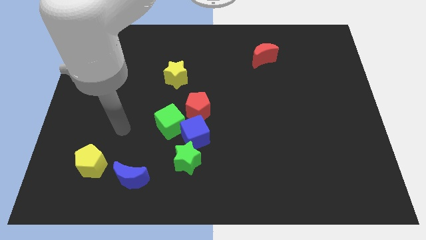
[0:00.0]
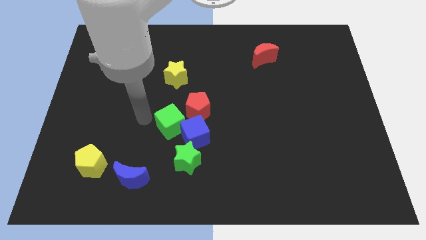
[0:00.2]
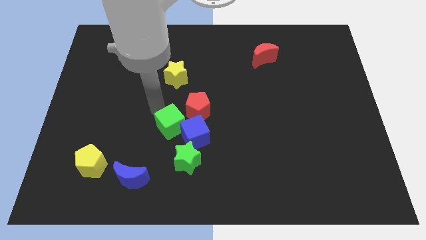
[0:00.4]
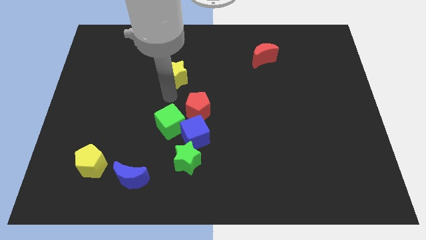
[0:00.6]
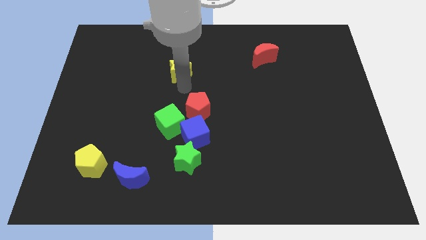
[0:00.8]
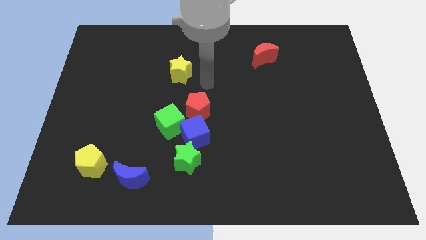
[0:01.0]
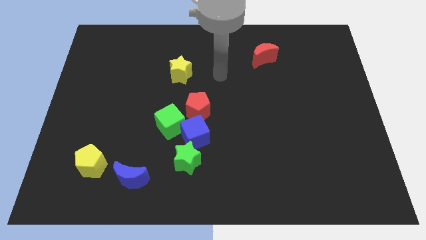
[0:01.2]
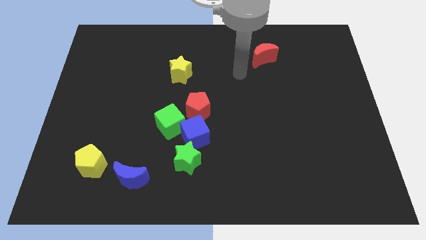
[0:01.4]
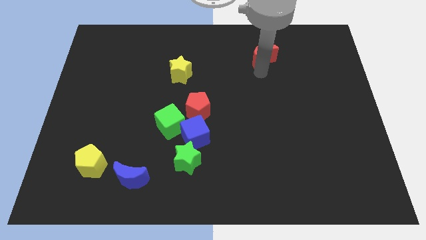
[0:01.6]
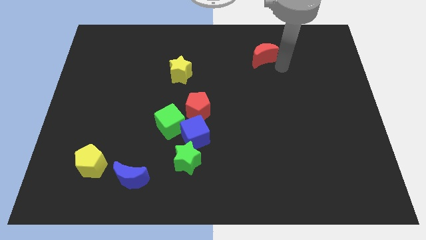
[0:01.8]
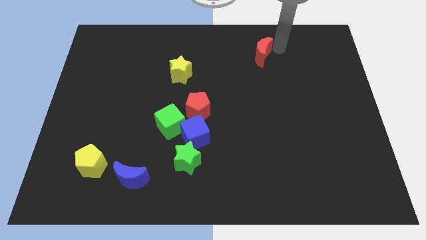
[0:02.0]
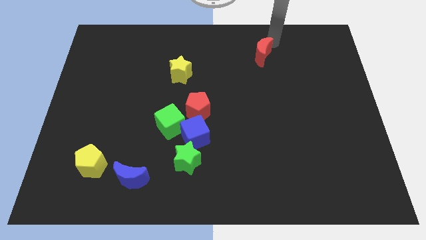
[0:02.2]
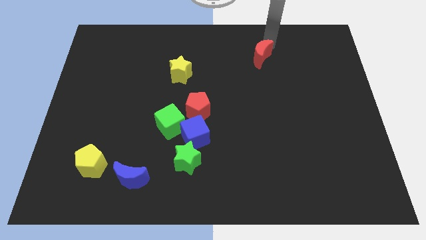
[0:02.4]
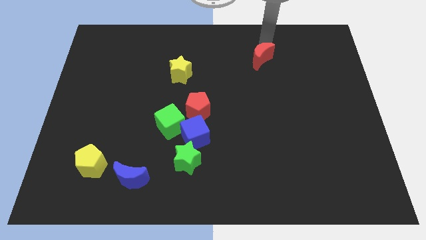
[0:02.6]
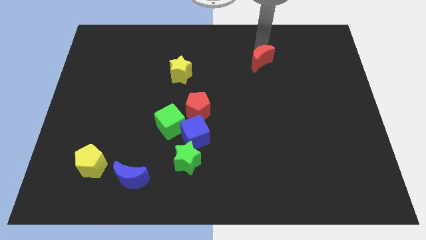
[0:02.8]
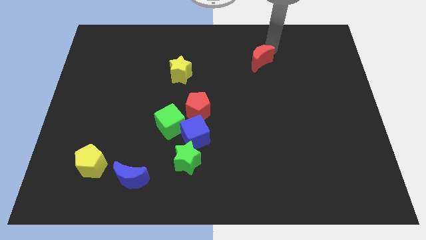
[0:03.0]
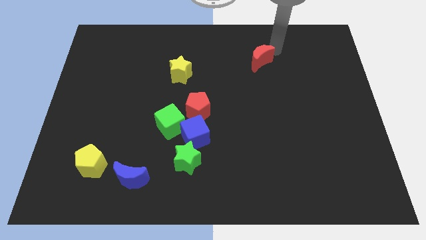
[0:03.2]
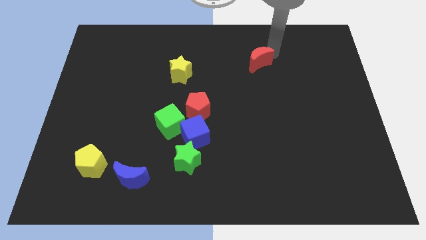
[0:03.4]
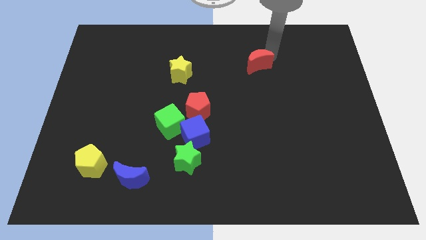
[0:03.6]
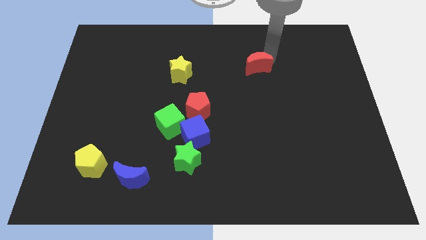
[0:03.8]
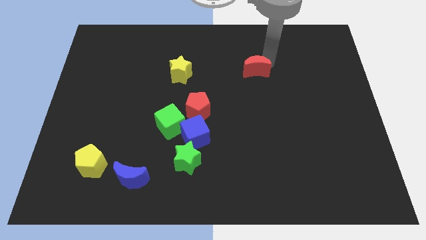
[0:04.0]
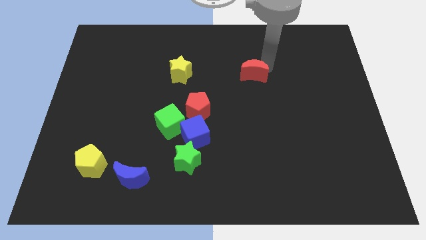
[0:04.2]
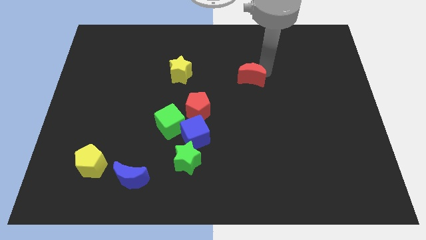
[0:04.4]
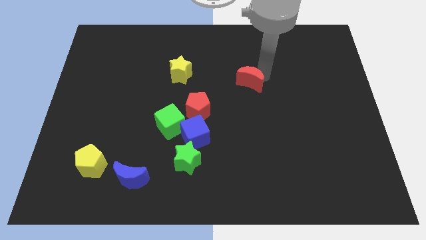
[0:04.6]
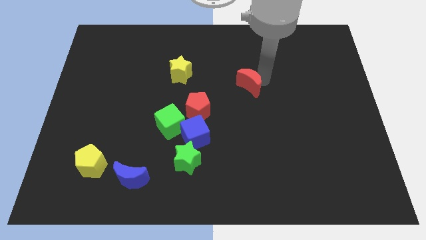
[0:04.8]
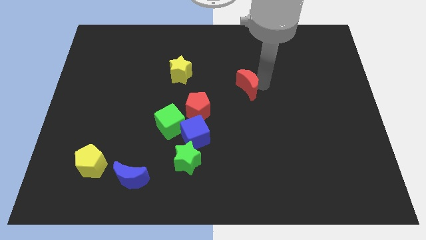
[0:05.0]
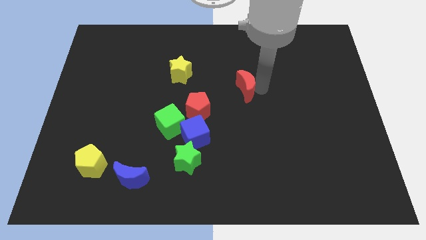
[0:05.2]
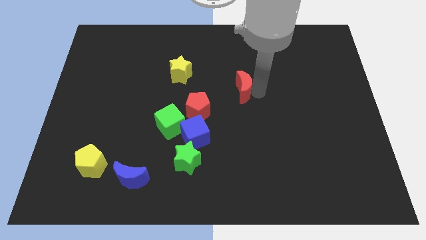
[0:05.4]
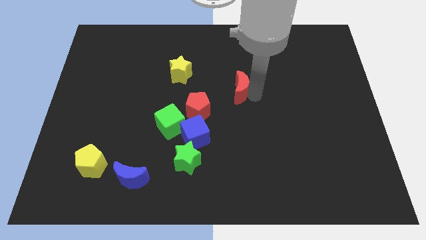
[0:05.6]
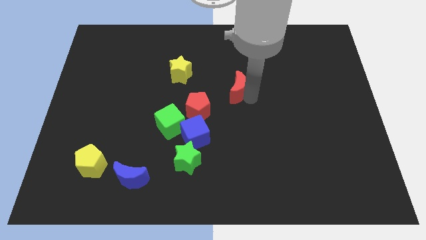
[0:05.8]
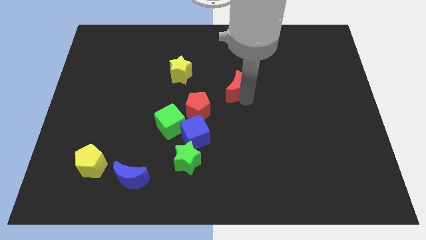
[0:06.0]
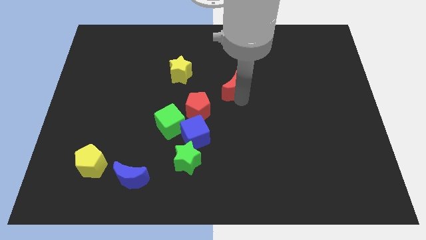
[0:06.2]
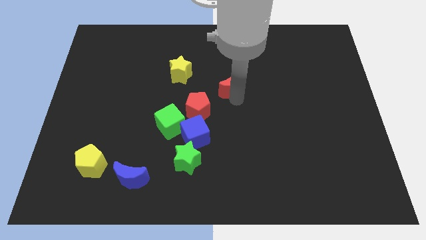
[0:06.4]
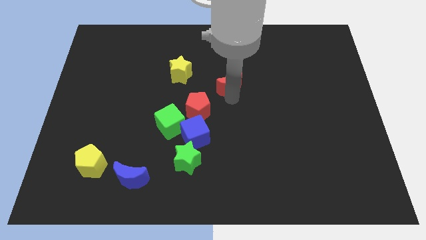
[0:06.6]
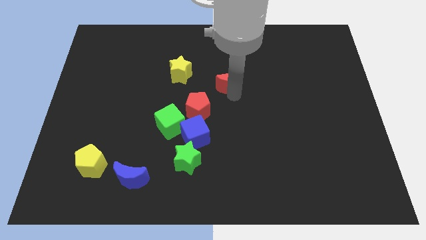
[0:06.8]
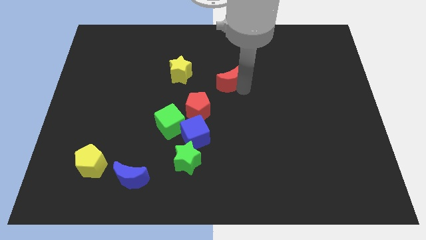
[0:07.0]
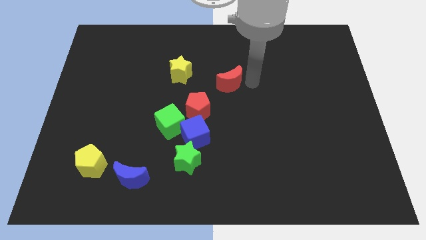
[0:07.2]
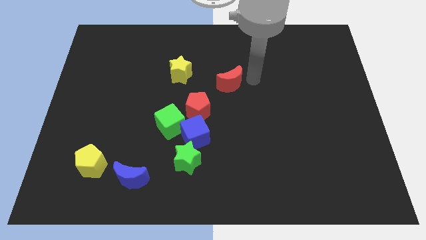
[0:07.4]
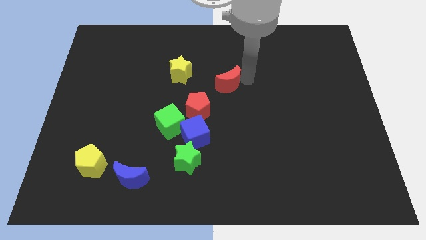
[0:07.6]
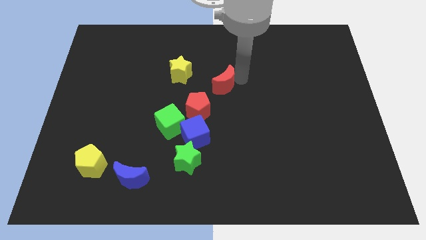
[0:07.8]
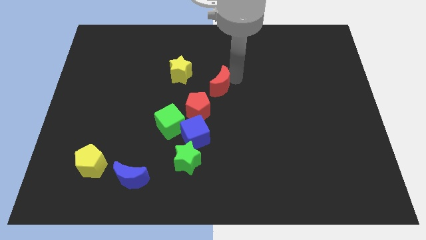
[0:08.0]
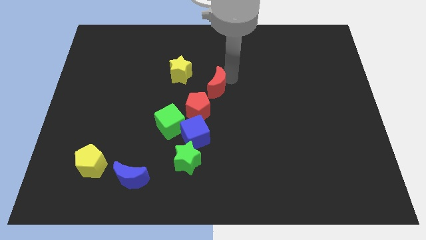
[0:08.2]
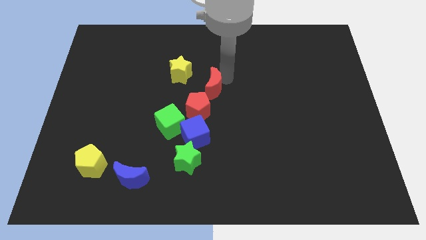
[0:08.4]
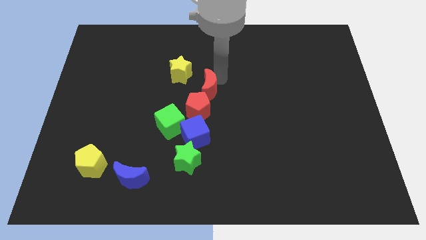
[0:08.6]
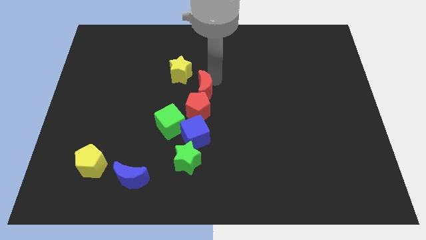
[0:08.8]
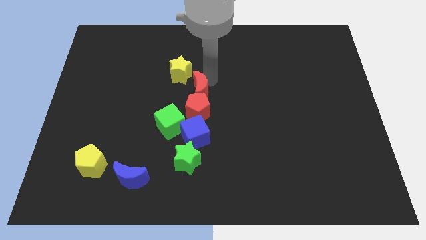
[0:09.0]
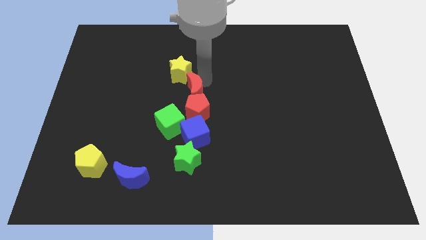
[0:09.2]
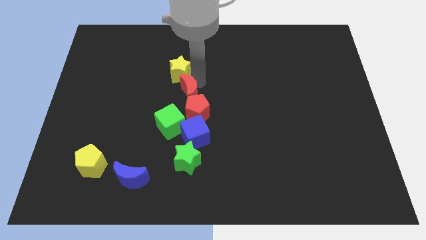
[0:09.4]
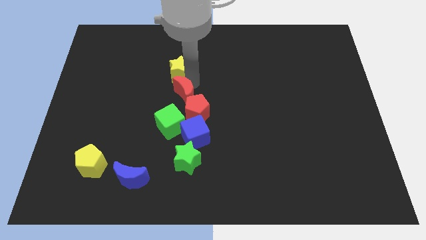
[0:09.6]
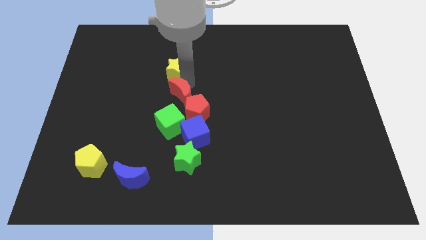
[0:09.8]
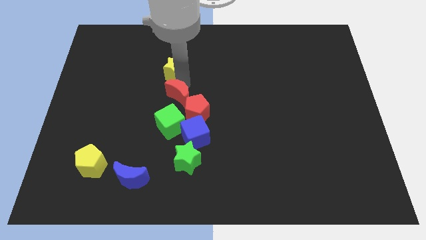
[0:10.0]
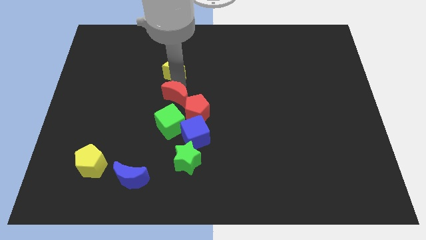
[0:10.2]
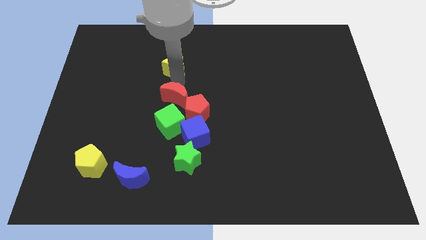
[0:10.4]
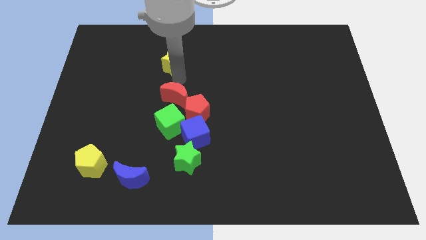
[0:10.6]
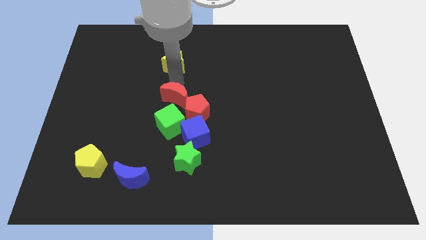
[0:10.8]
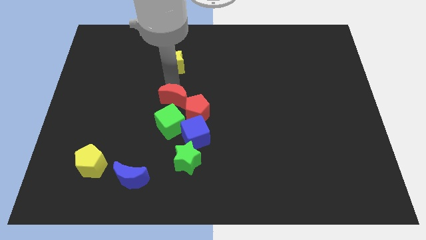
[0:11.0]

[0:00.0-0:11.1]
slide the red moon to the top left of the blue cube

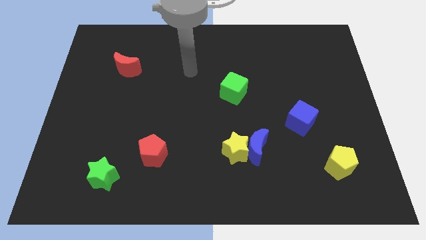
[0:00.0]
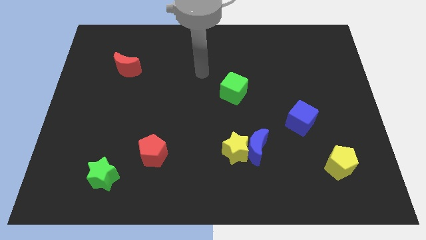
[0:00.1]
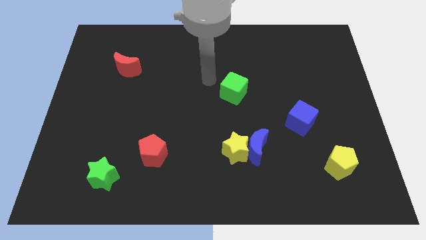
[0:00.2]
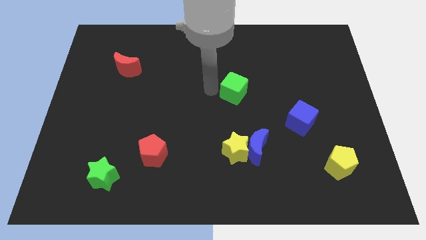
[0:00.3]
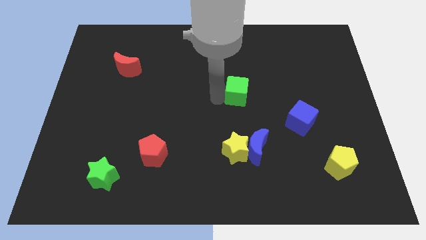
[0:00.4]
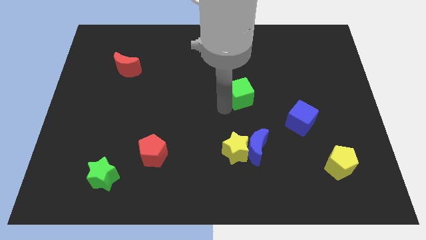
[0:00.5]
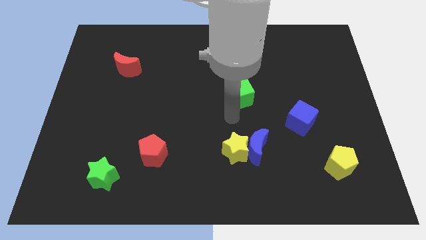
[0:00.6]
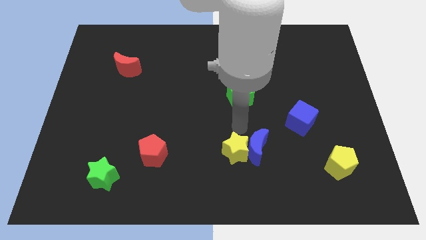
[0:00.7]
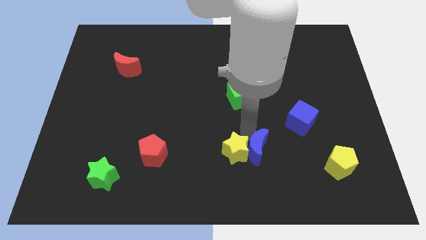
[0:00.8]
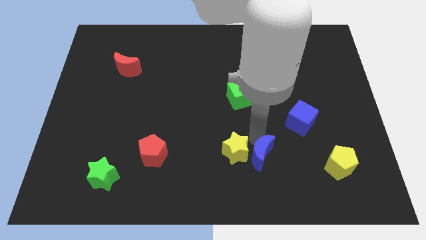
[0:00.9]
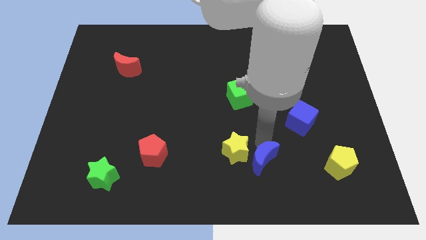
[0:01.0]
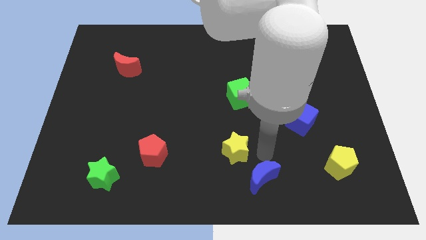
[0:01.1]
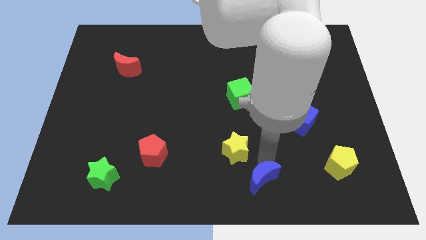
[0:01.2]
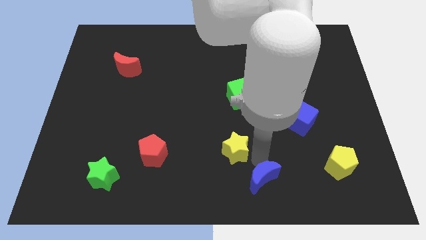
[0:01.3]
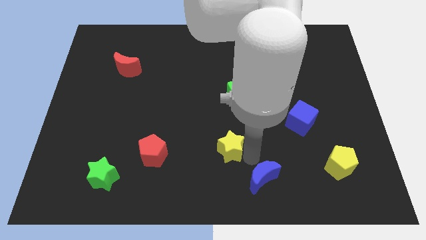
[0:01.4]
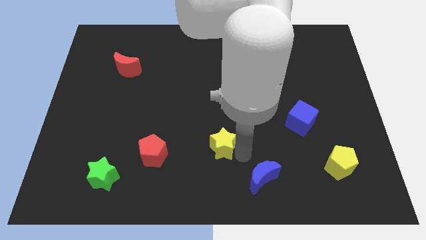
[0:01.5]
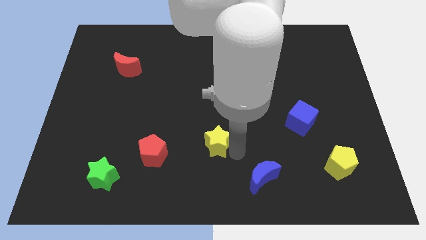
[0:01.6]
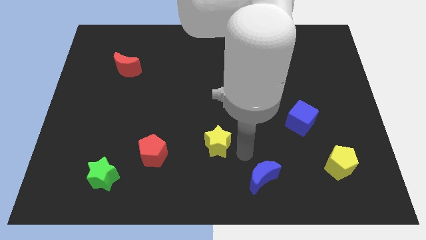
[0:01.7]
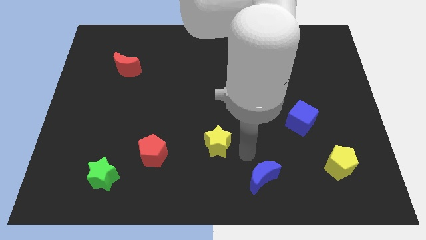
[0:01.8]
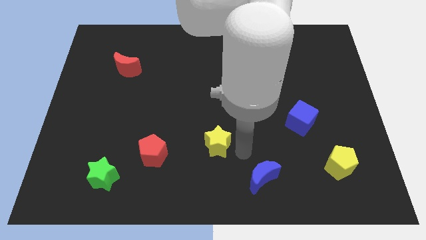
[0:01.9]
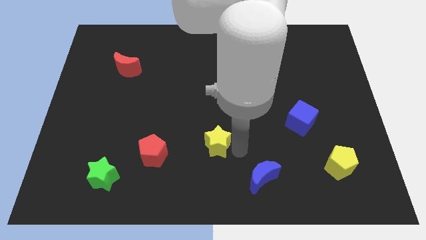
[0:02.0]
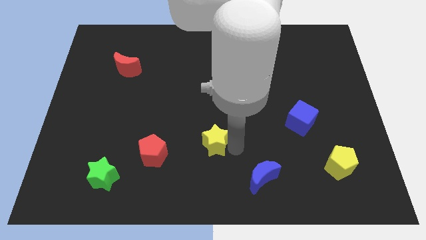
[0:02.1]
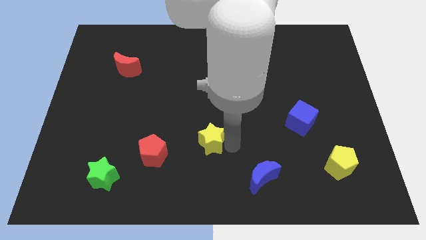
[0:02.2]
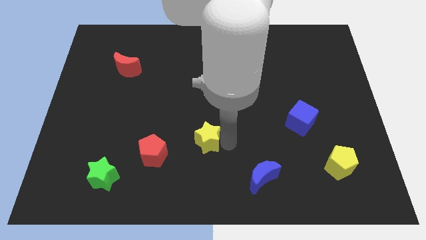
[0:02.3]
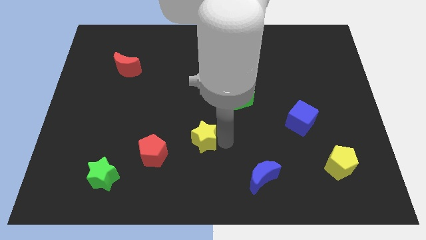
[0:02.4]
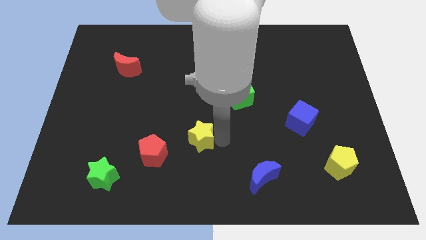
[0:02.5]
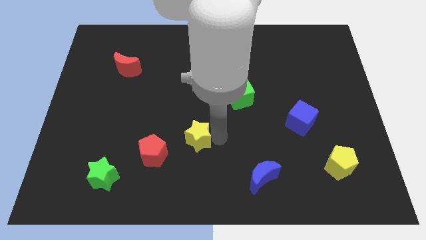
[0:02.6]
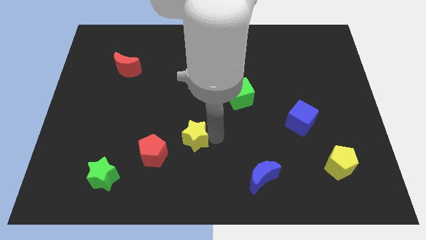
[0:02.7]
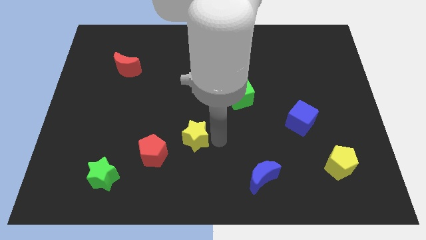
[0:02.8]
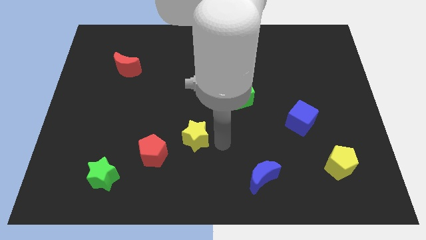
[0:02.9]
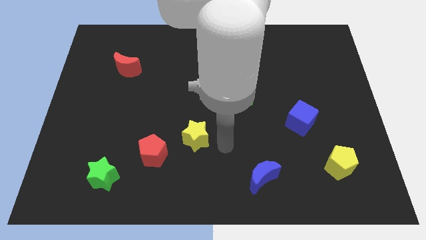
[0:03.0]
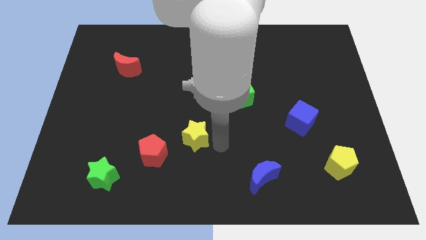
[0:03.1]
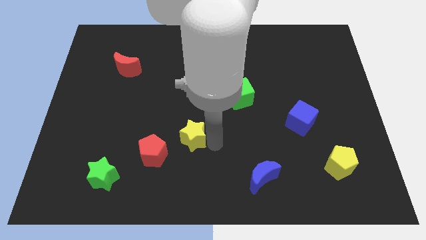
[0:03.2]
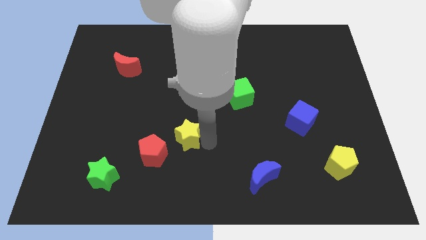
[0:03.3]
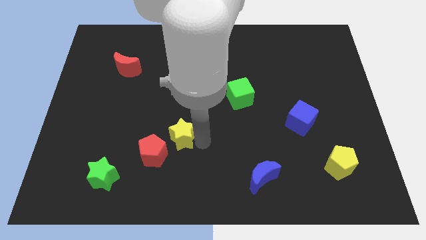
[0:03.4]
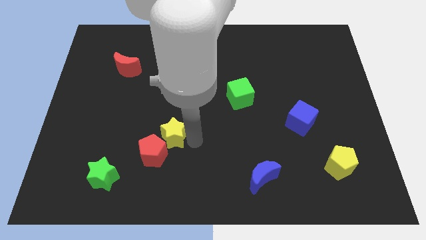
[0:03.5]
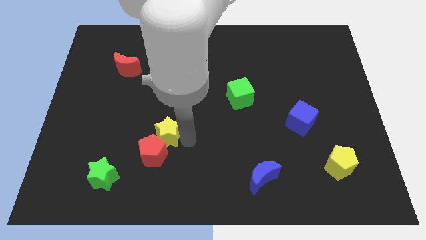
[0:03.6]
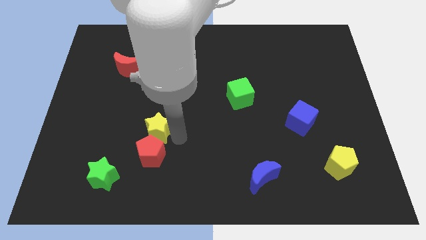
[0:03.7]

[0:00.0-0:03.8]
put the yellow star diagonally up and to the left of the red pentagon
